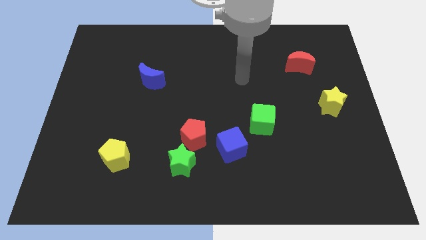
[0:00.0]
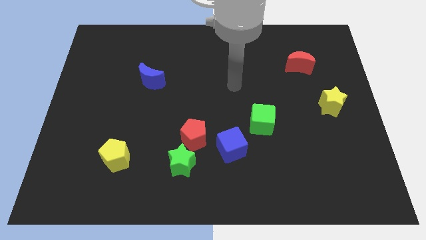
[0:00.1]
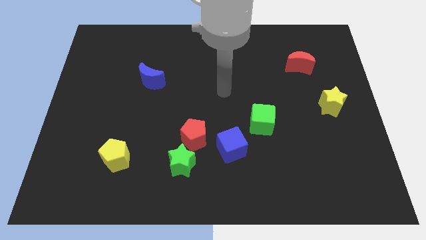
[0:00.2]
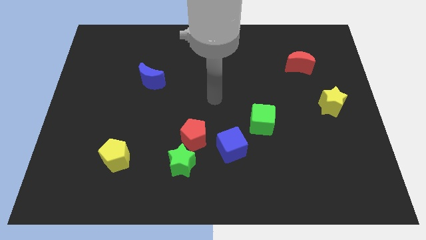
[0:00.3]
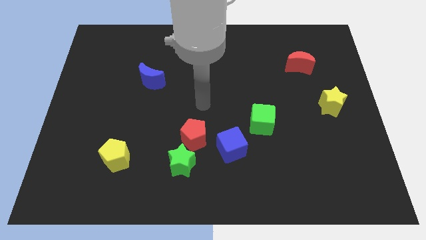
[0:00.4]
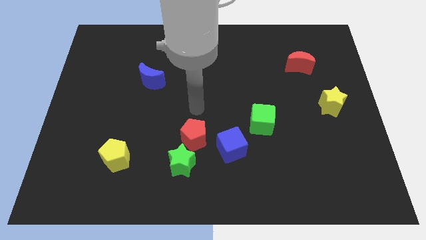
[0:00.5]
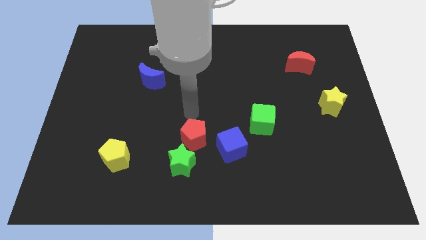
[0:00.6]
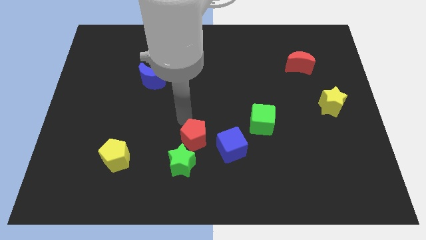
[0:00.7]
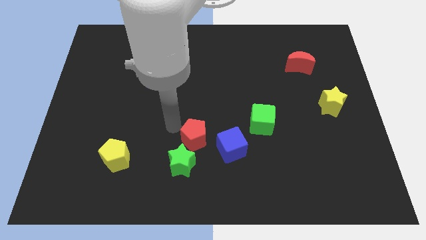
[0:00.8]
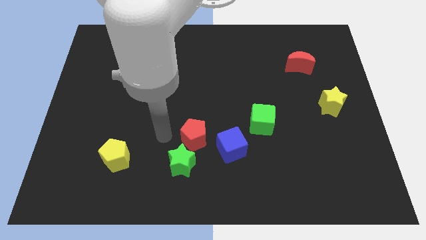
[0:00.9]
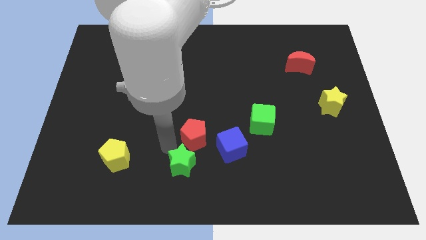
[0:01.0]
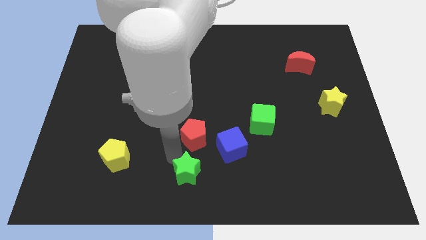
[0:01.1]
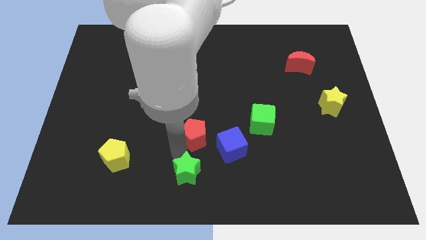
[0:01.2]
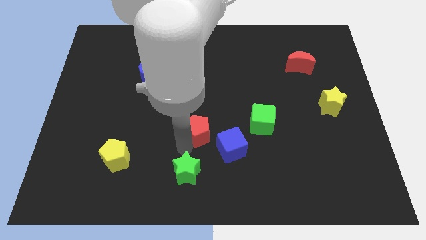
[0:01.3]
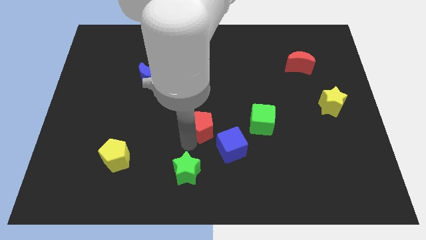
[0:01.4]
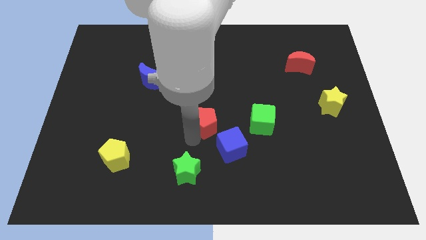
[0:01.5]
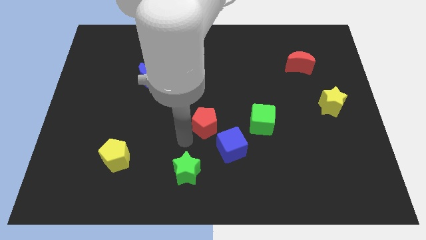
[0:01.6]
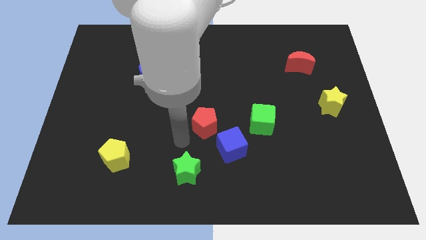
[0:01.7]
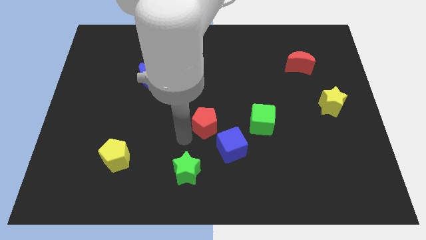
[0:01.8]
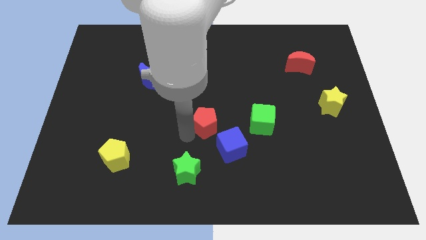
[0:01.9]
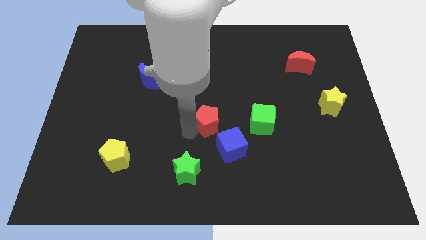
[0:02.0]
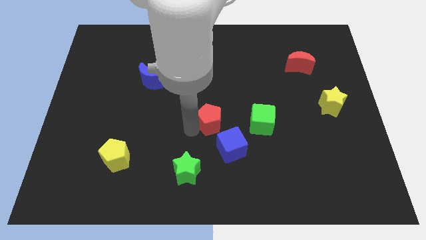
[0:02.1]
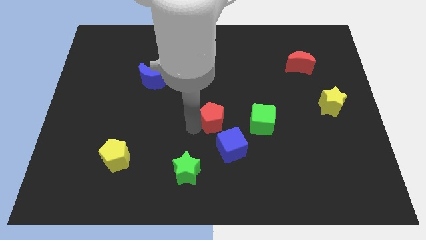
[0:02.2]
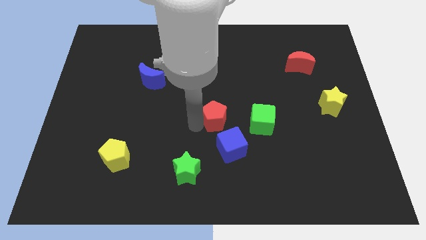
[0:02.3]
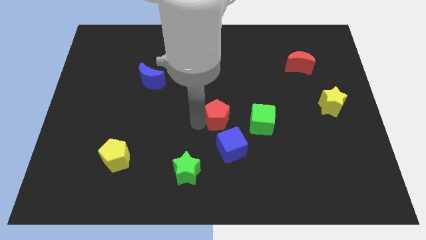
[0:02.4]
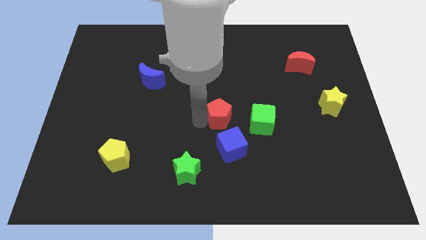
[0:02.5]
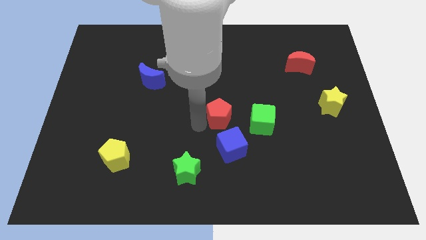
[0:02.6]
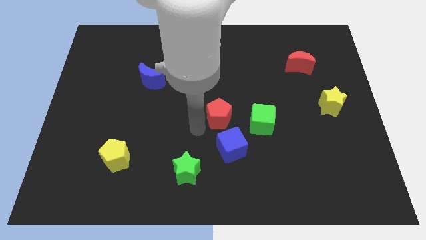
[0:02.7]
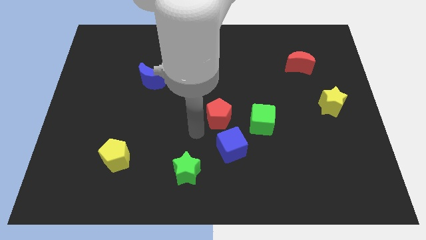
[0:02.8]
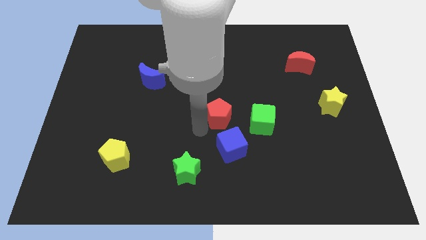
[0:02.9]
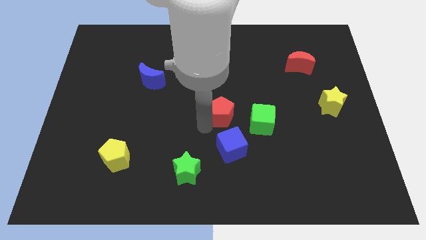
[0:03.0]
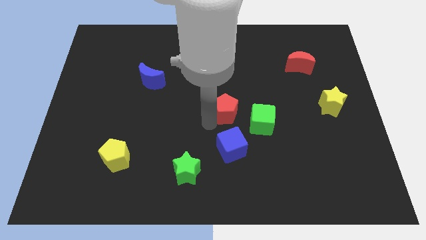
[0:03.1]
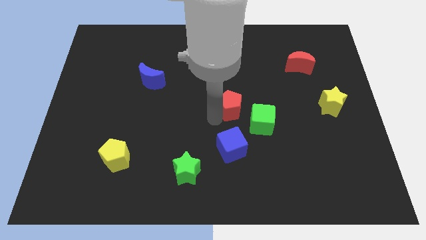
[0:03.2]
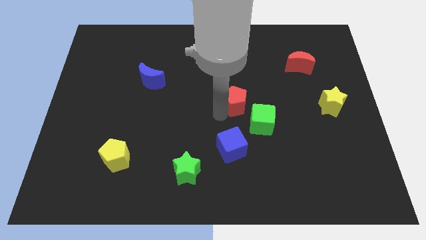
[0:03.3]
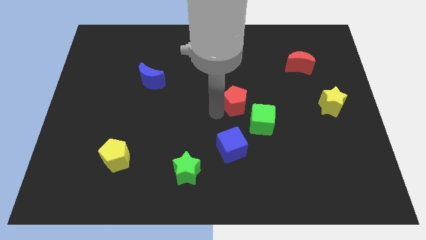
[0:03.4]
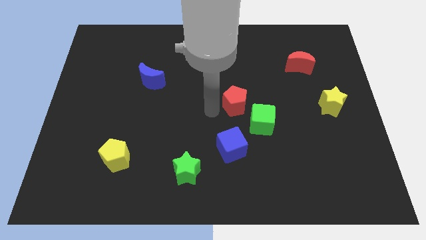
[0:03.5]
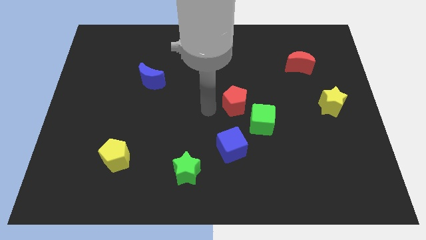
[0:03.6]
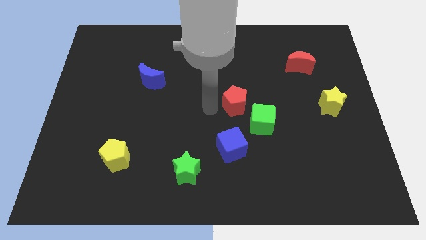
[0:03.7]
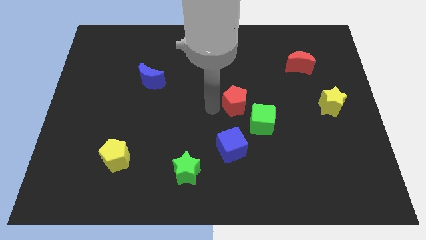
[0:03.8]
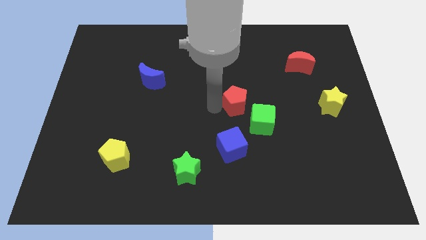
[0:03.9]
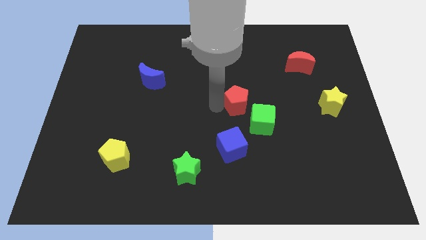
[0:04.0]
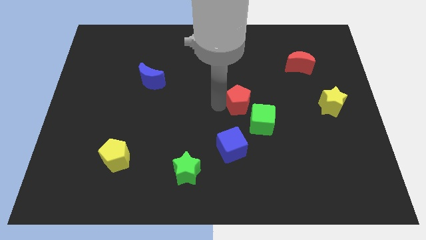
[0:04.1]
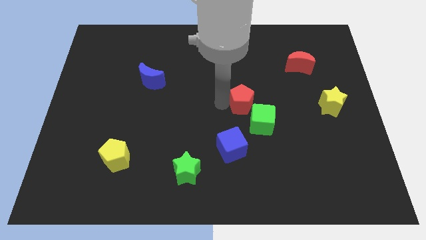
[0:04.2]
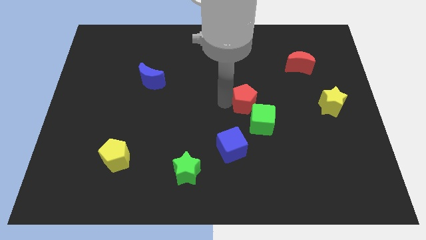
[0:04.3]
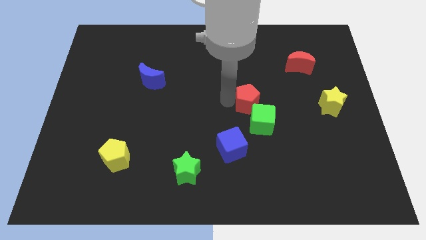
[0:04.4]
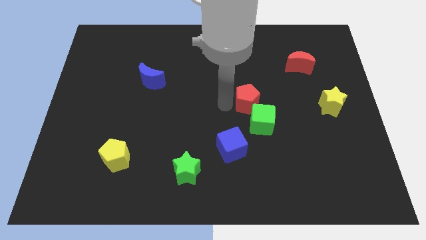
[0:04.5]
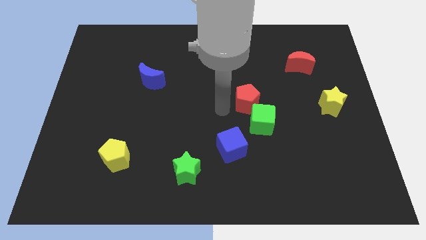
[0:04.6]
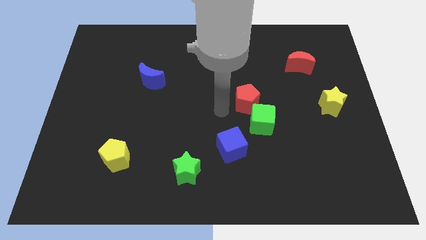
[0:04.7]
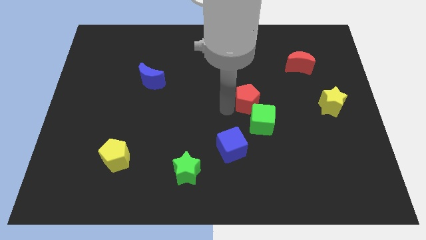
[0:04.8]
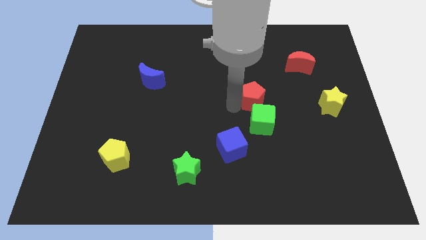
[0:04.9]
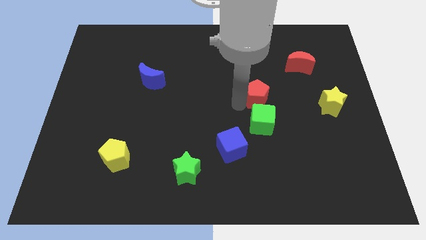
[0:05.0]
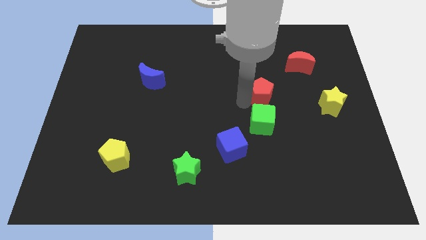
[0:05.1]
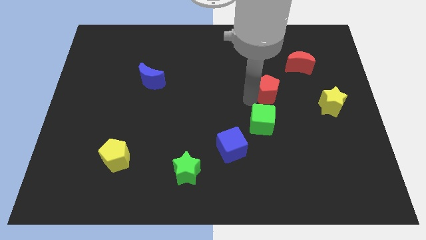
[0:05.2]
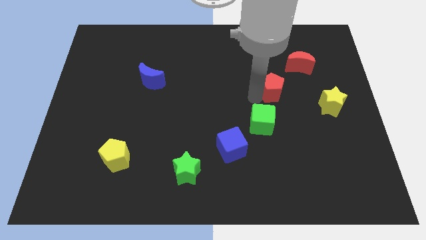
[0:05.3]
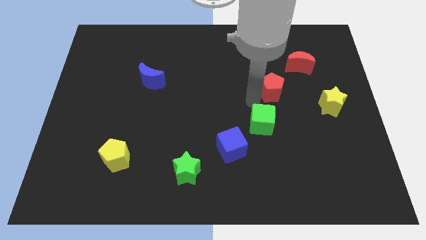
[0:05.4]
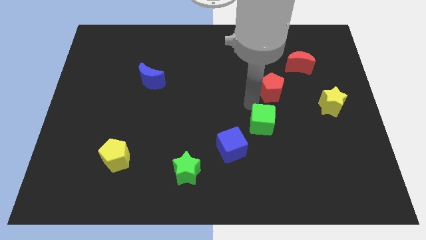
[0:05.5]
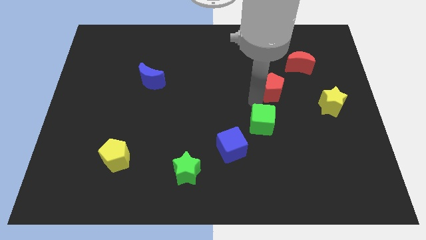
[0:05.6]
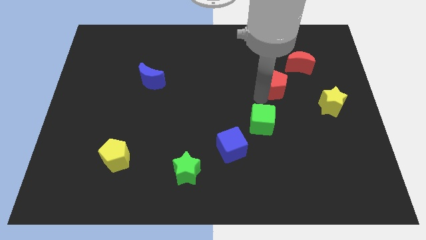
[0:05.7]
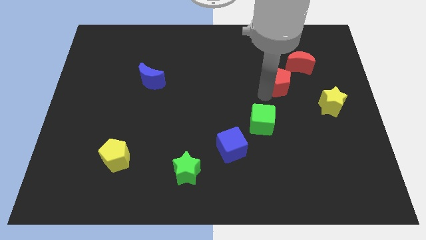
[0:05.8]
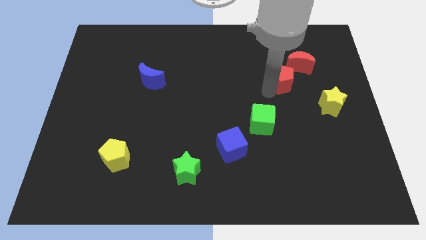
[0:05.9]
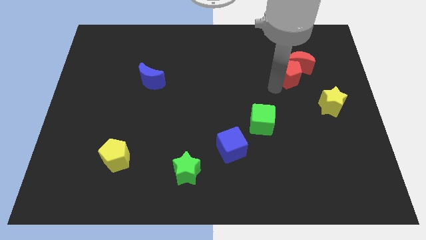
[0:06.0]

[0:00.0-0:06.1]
push the red pentagon next to the red moon
